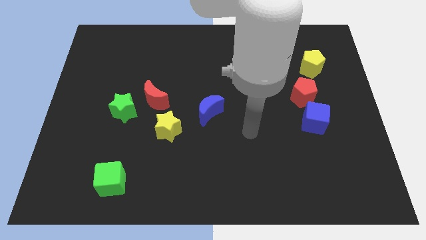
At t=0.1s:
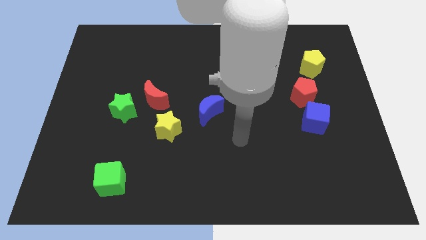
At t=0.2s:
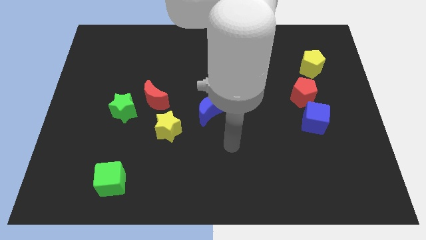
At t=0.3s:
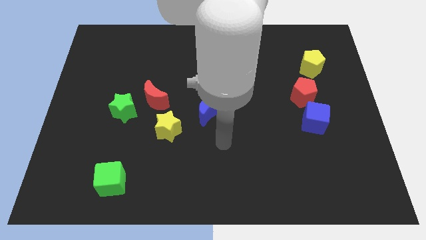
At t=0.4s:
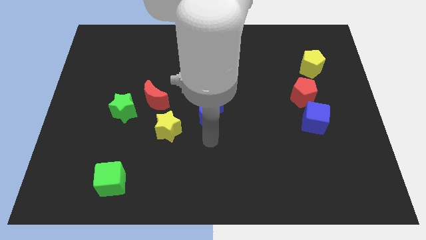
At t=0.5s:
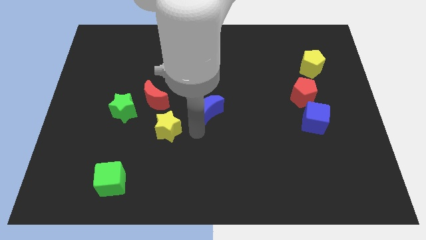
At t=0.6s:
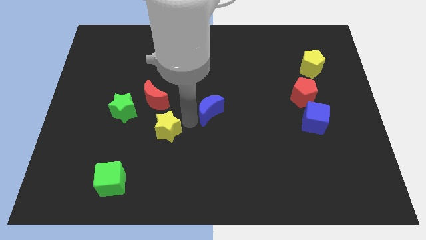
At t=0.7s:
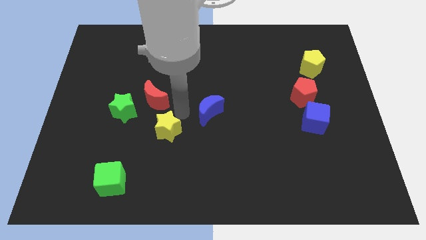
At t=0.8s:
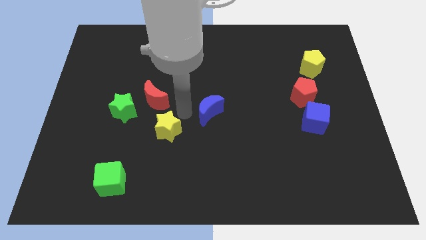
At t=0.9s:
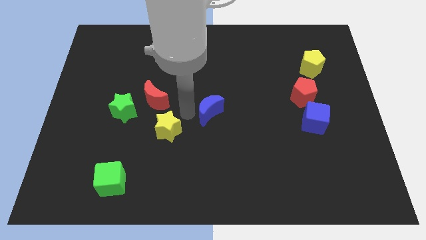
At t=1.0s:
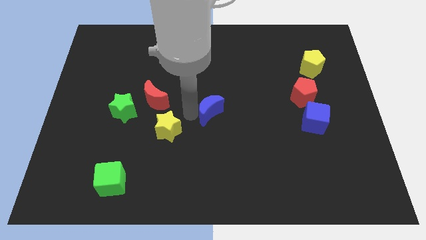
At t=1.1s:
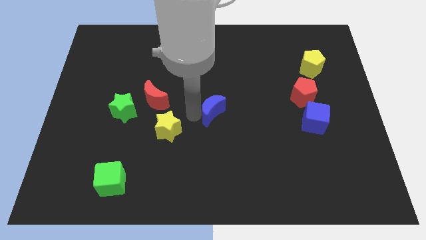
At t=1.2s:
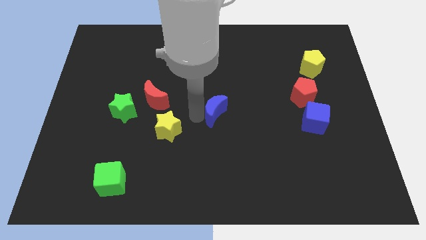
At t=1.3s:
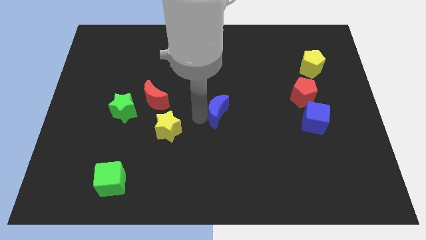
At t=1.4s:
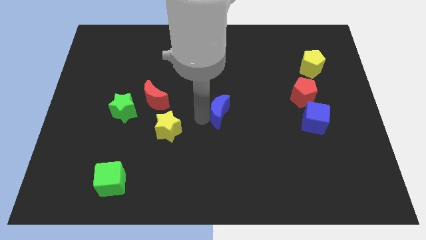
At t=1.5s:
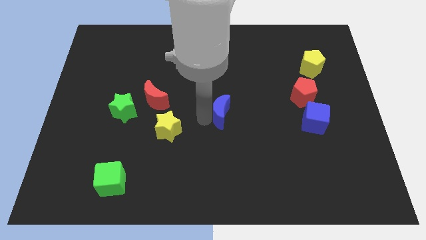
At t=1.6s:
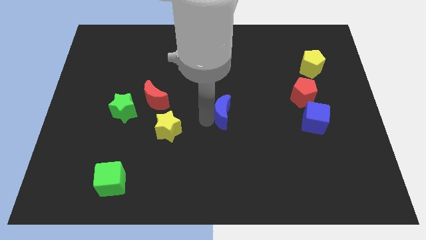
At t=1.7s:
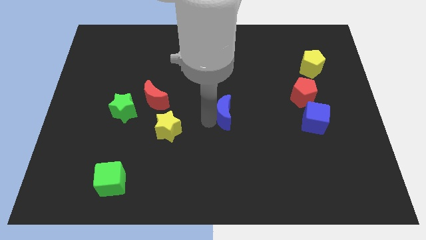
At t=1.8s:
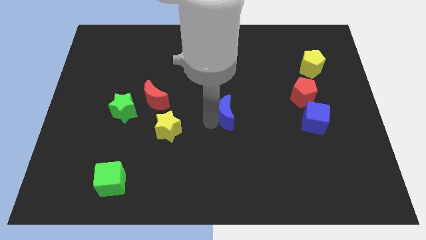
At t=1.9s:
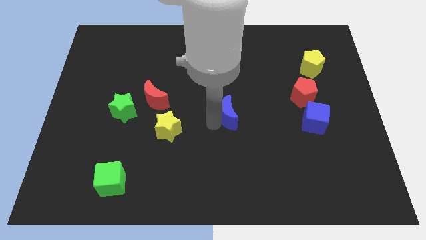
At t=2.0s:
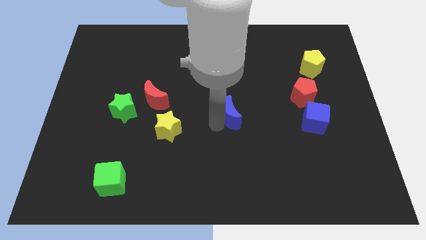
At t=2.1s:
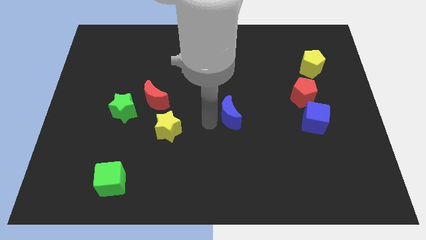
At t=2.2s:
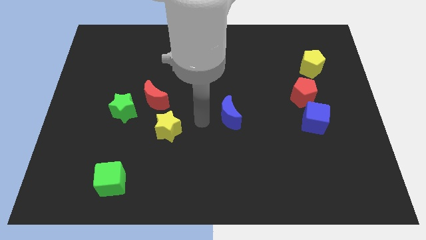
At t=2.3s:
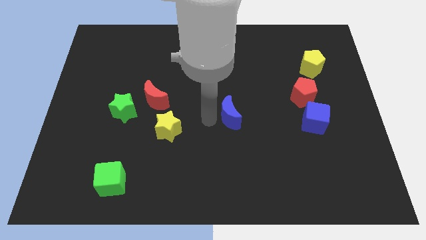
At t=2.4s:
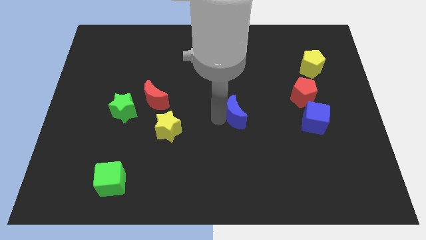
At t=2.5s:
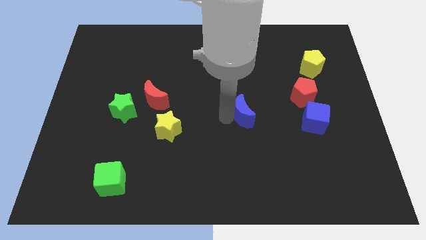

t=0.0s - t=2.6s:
push the blue moon right somewhat

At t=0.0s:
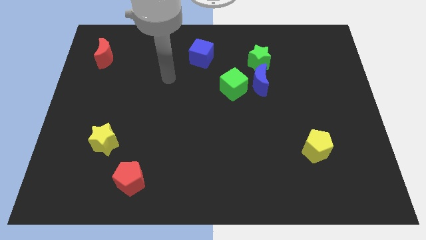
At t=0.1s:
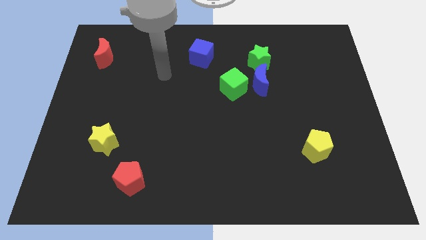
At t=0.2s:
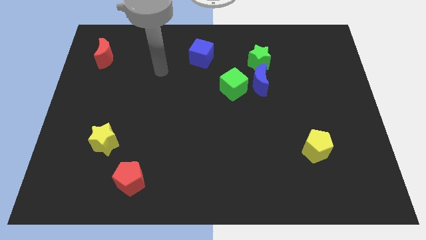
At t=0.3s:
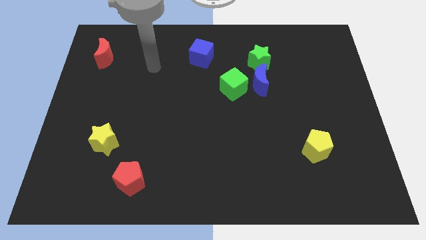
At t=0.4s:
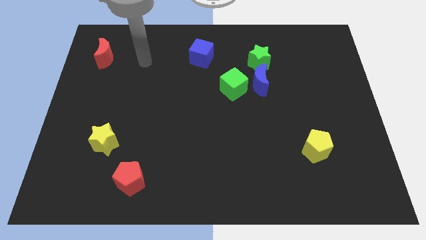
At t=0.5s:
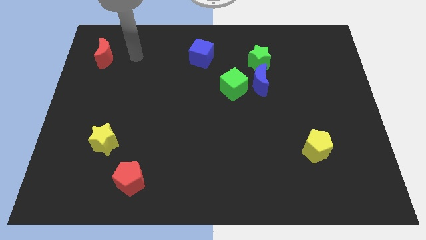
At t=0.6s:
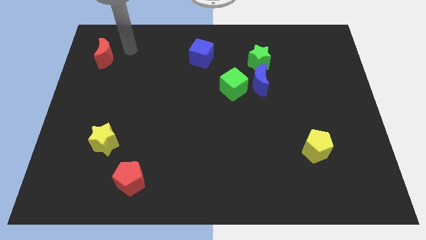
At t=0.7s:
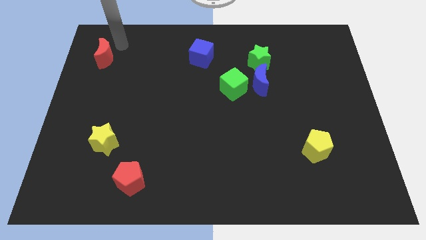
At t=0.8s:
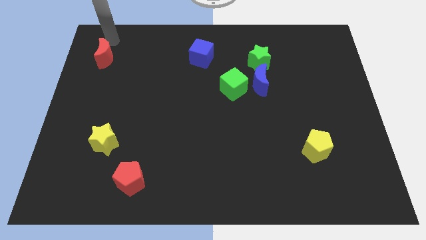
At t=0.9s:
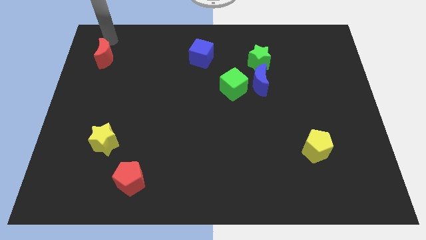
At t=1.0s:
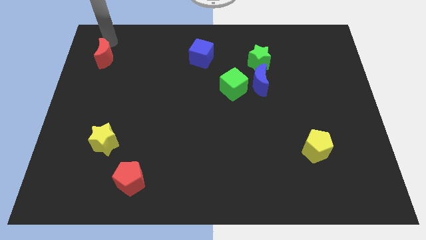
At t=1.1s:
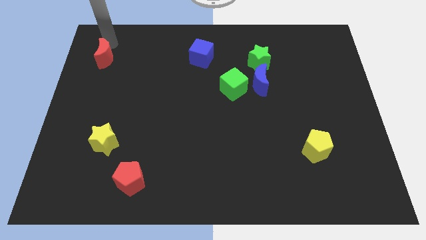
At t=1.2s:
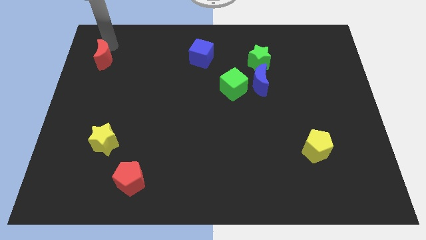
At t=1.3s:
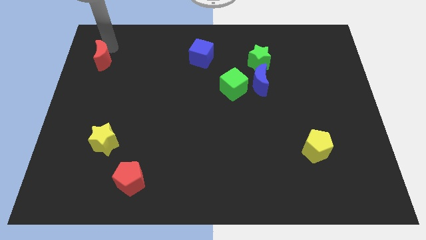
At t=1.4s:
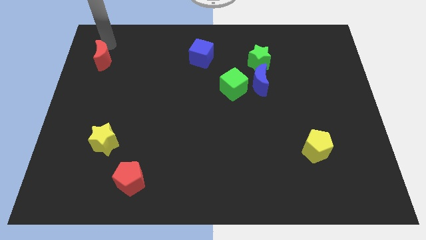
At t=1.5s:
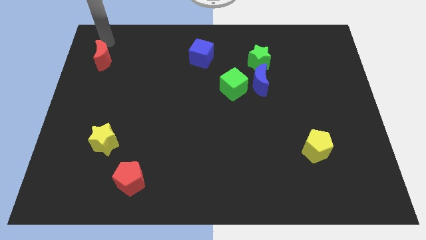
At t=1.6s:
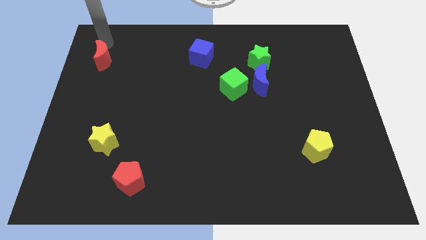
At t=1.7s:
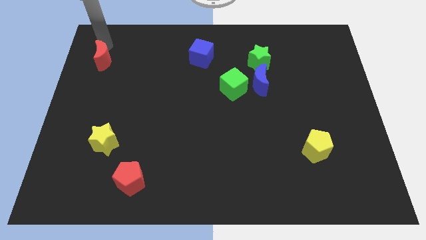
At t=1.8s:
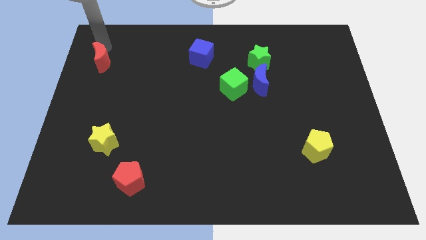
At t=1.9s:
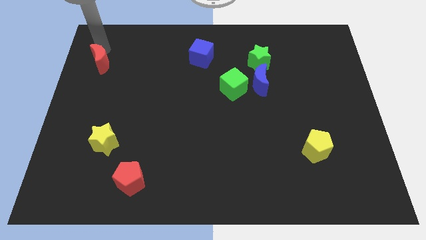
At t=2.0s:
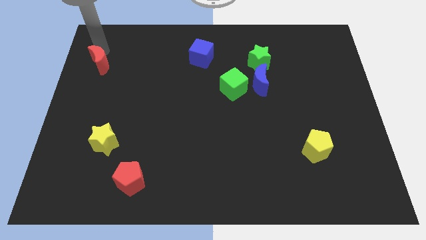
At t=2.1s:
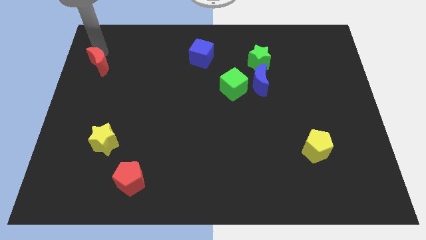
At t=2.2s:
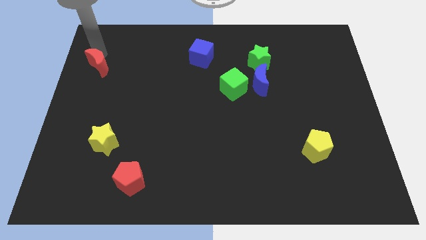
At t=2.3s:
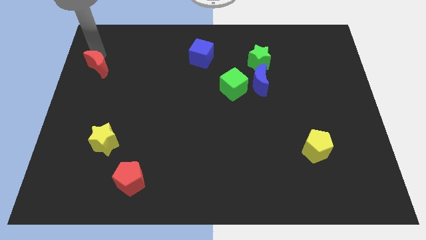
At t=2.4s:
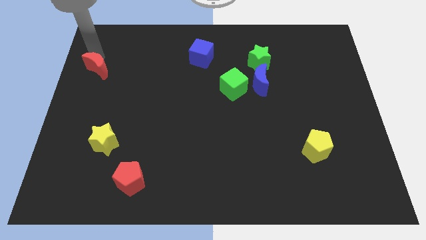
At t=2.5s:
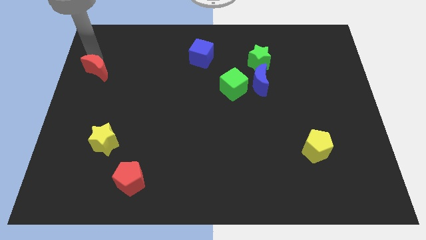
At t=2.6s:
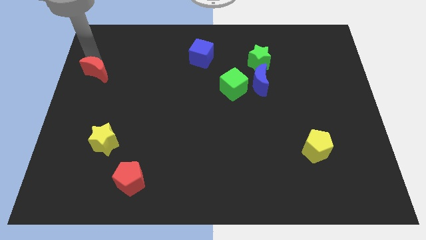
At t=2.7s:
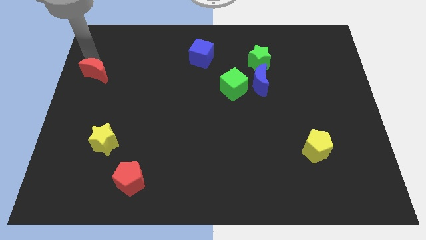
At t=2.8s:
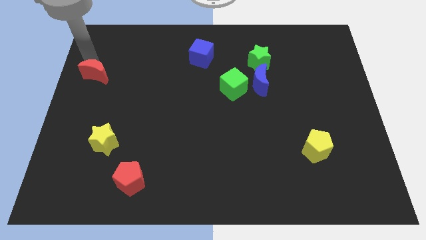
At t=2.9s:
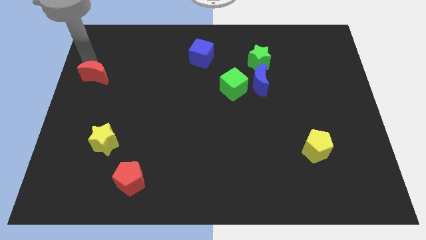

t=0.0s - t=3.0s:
slightly move the red moon down

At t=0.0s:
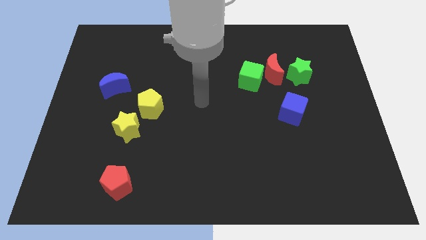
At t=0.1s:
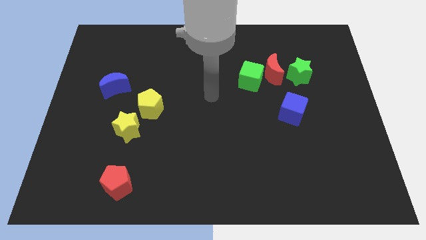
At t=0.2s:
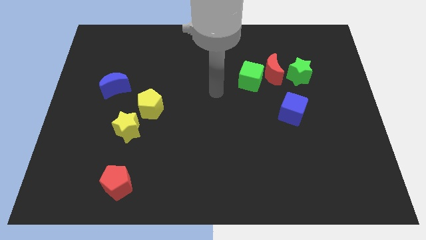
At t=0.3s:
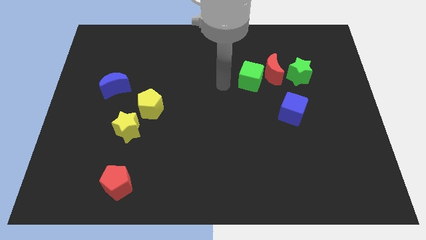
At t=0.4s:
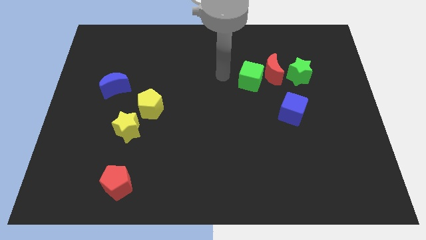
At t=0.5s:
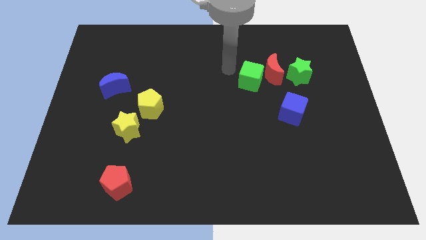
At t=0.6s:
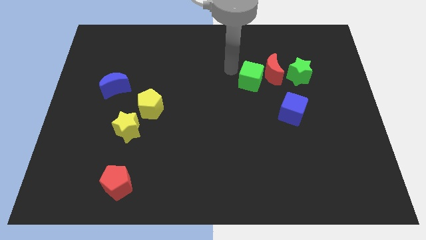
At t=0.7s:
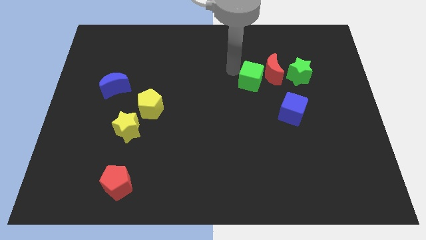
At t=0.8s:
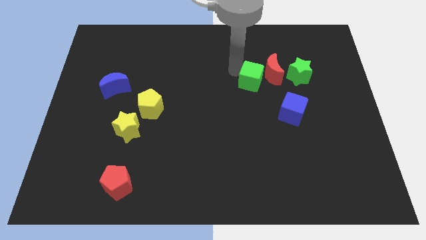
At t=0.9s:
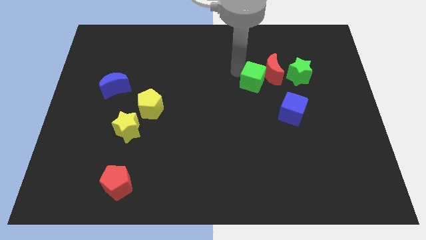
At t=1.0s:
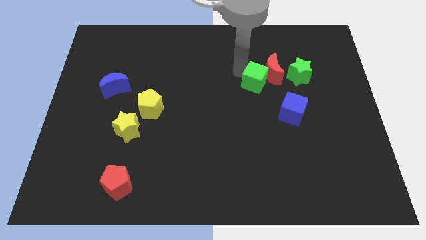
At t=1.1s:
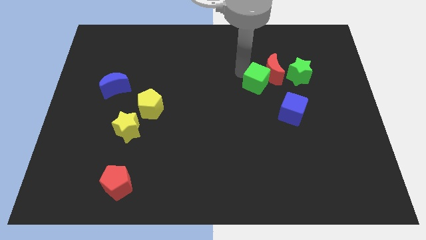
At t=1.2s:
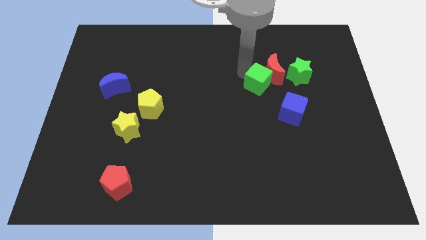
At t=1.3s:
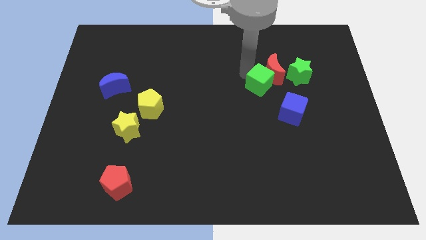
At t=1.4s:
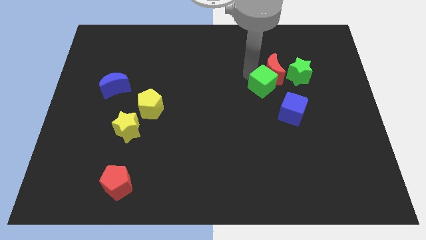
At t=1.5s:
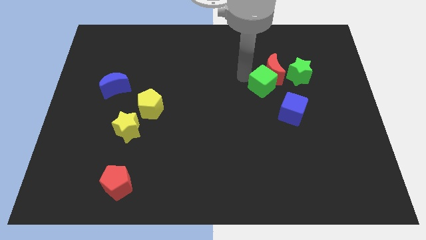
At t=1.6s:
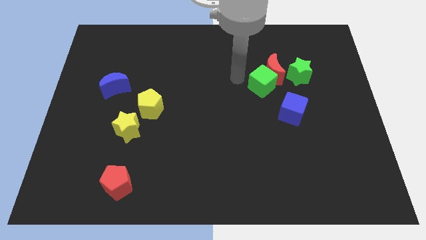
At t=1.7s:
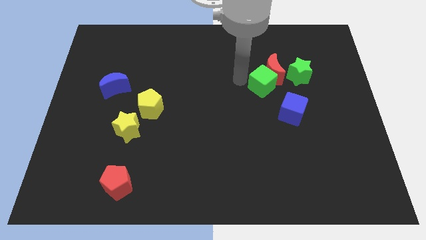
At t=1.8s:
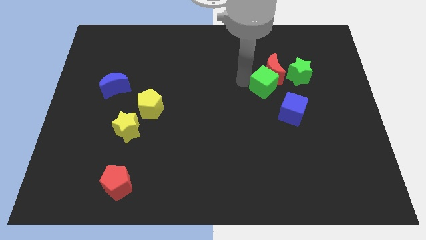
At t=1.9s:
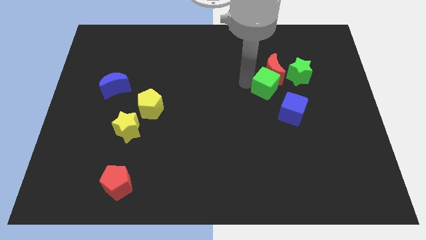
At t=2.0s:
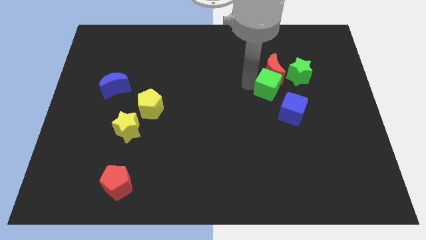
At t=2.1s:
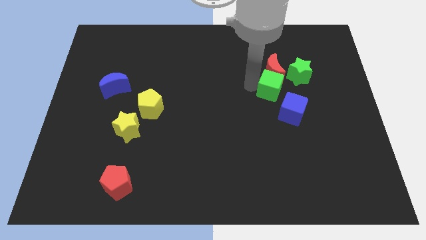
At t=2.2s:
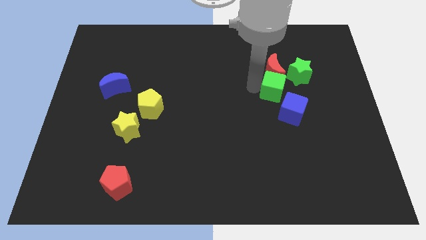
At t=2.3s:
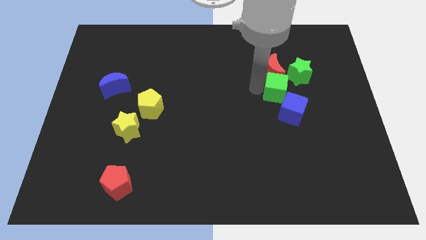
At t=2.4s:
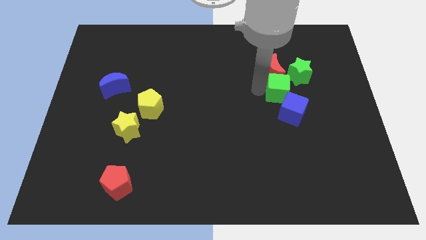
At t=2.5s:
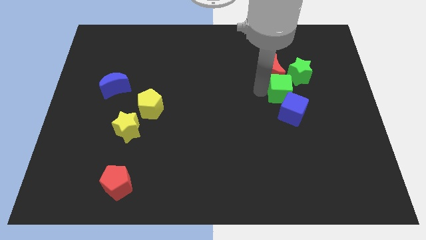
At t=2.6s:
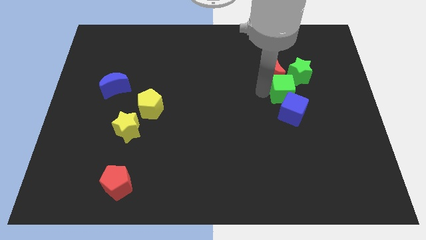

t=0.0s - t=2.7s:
slightly push the green cube right

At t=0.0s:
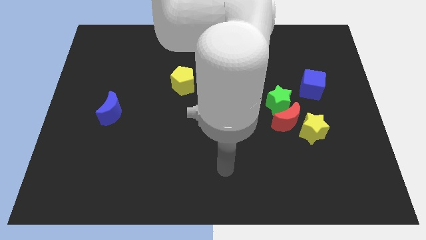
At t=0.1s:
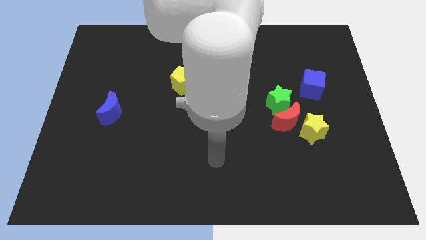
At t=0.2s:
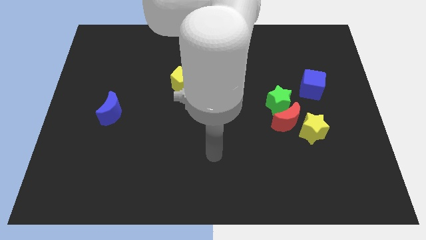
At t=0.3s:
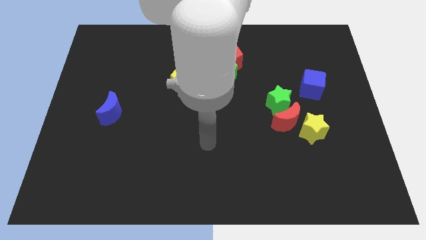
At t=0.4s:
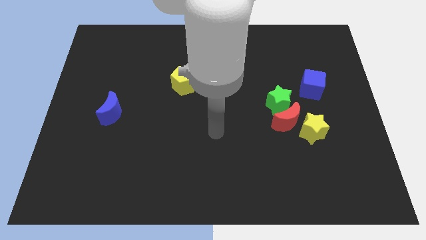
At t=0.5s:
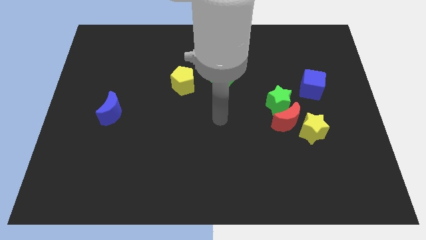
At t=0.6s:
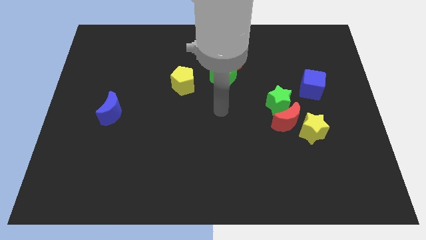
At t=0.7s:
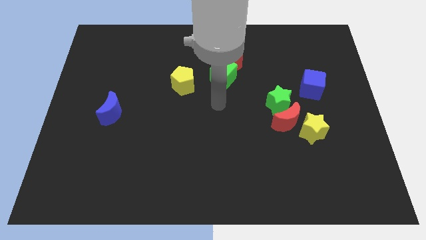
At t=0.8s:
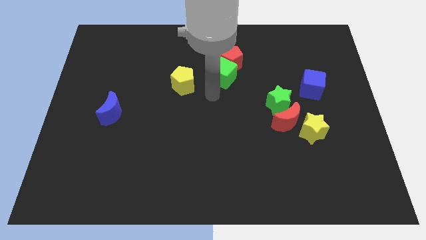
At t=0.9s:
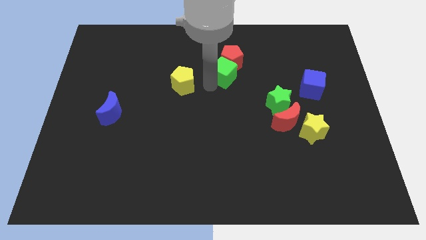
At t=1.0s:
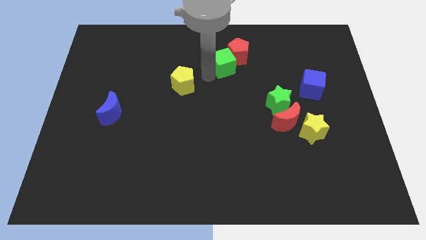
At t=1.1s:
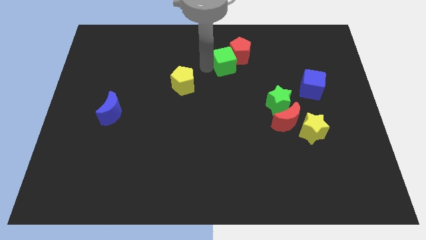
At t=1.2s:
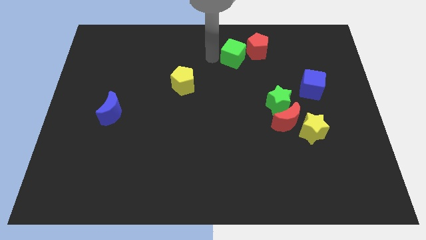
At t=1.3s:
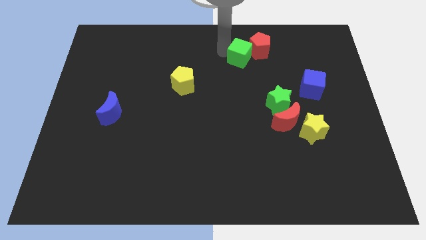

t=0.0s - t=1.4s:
slide the red pentagon to the right slightly
